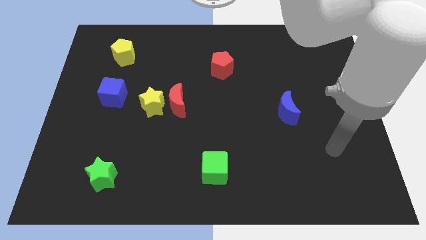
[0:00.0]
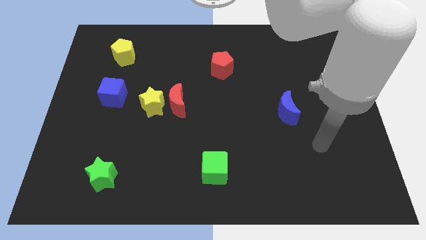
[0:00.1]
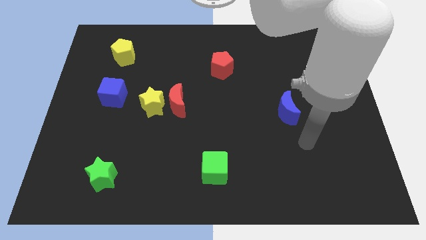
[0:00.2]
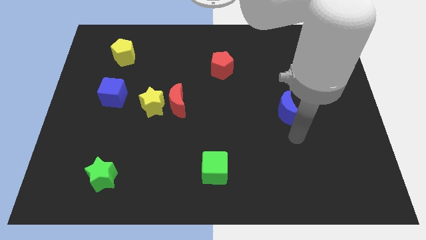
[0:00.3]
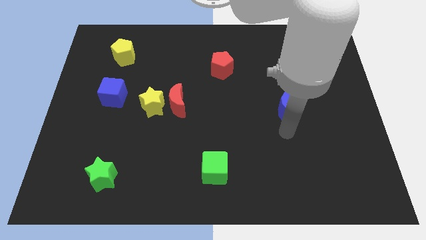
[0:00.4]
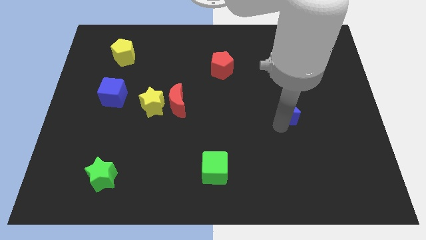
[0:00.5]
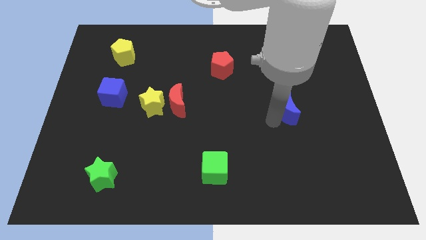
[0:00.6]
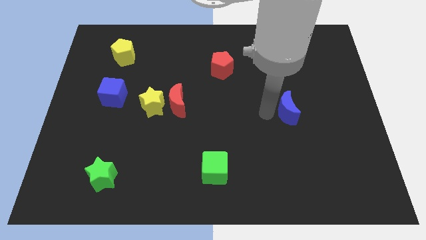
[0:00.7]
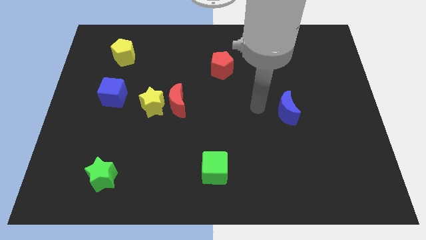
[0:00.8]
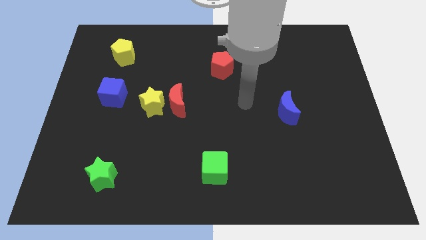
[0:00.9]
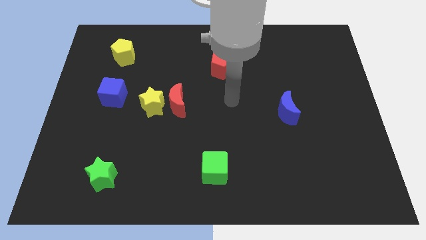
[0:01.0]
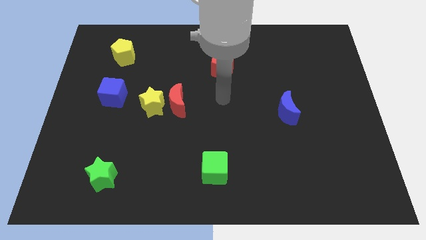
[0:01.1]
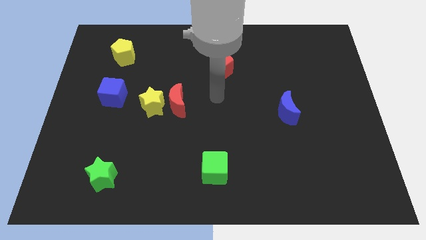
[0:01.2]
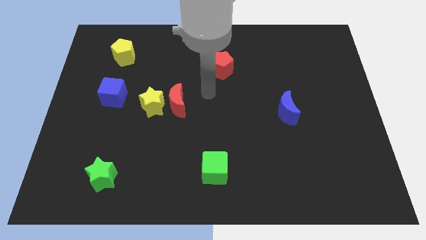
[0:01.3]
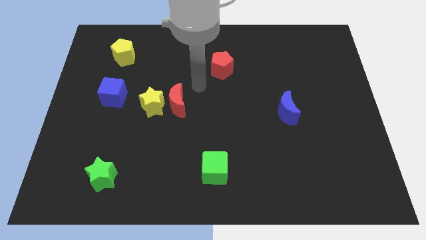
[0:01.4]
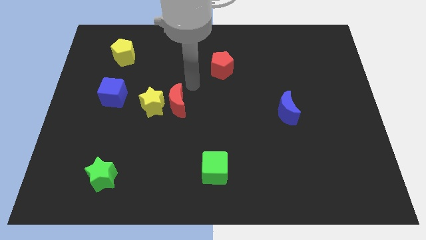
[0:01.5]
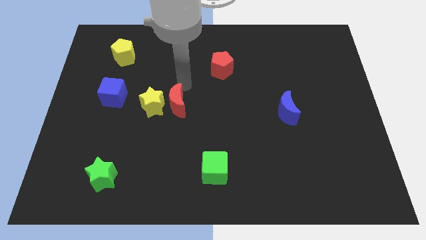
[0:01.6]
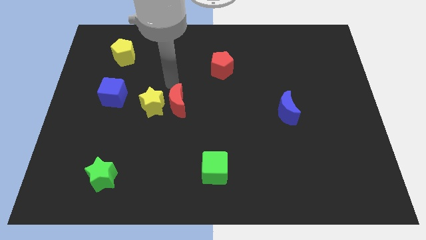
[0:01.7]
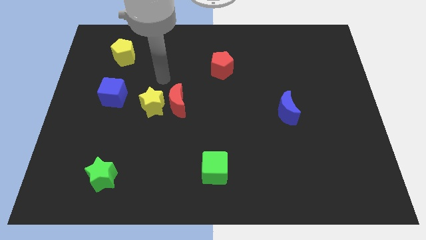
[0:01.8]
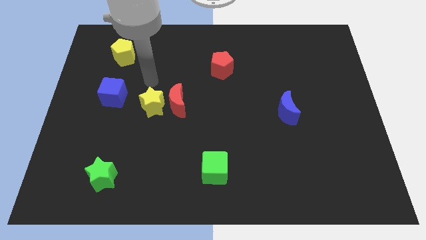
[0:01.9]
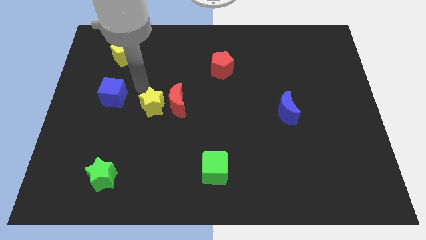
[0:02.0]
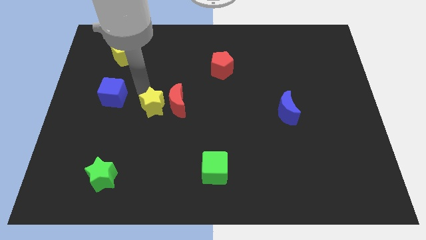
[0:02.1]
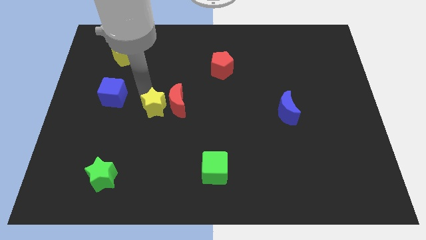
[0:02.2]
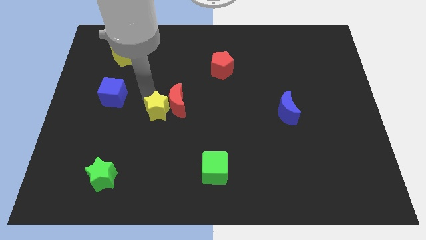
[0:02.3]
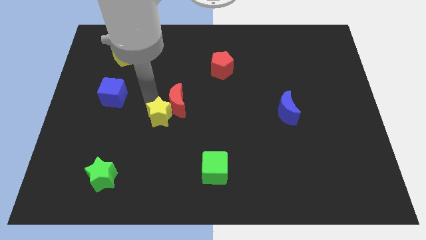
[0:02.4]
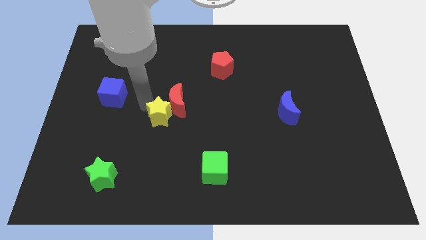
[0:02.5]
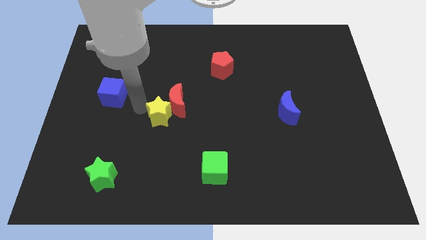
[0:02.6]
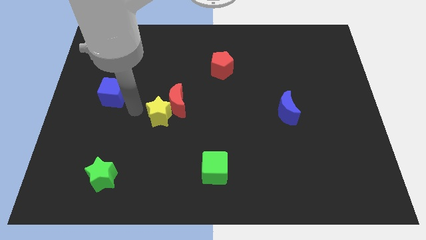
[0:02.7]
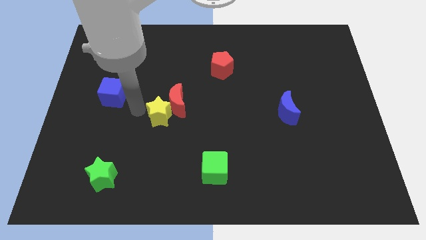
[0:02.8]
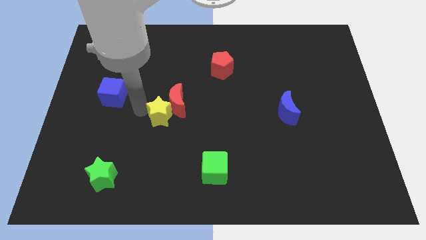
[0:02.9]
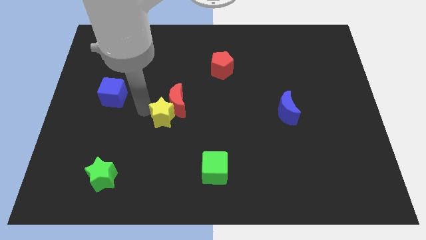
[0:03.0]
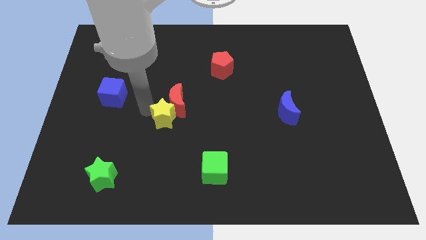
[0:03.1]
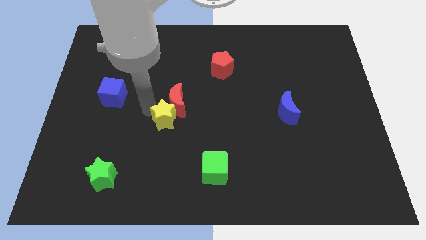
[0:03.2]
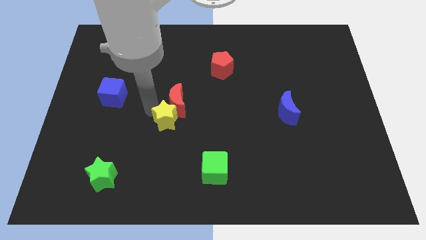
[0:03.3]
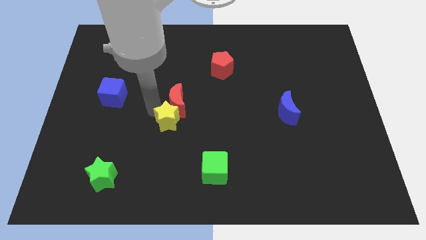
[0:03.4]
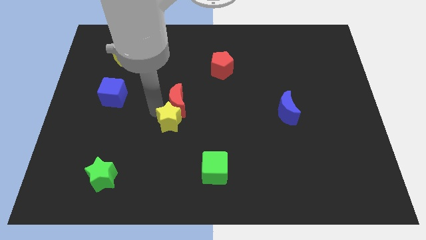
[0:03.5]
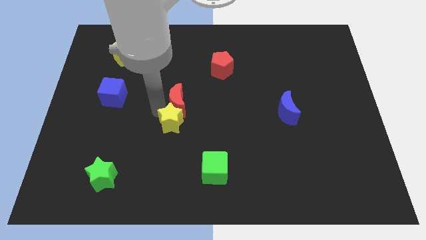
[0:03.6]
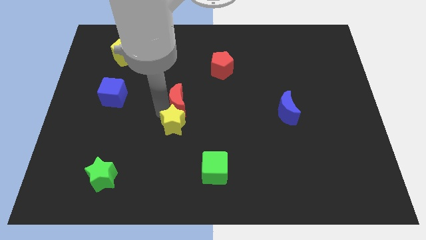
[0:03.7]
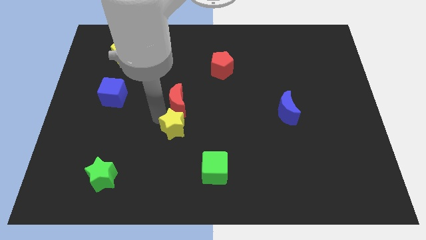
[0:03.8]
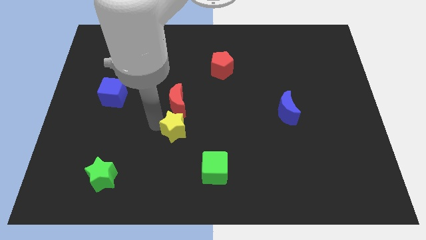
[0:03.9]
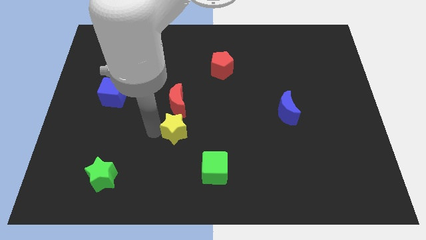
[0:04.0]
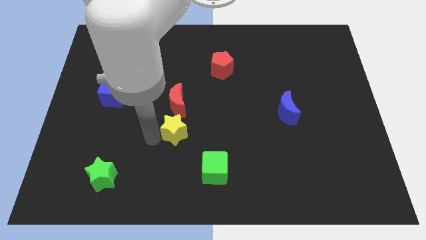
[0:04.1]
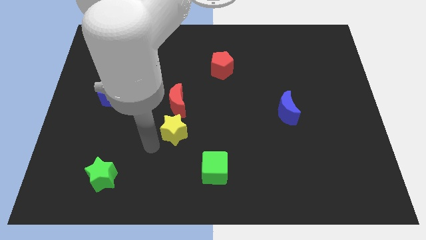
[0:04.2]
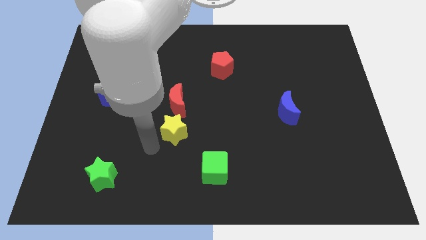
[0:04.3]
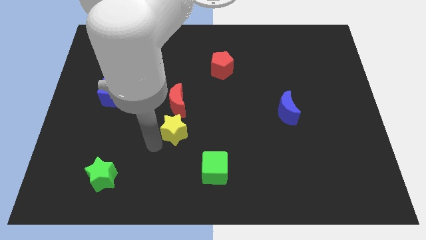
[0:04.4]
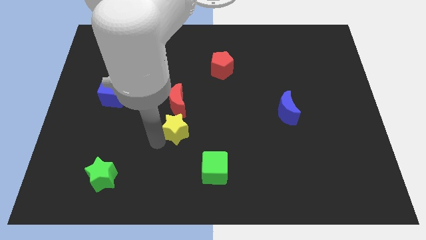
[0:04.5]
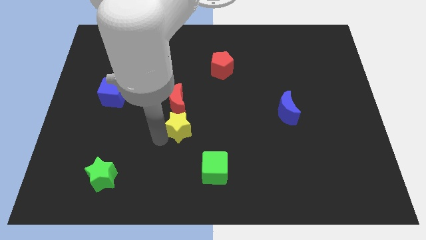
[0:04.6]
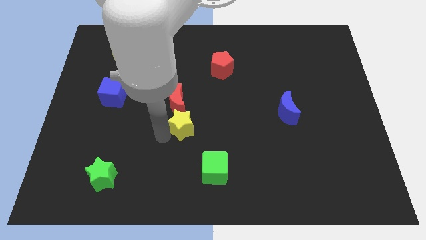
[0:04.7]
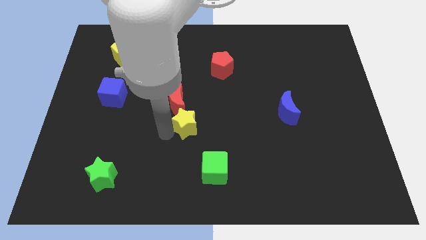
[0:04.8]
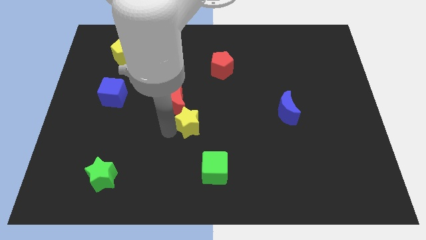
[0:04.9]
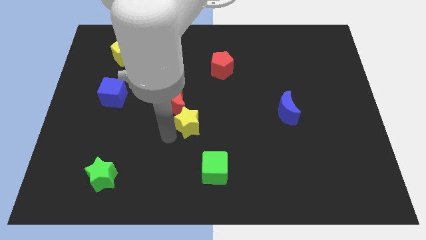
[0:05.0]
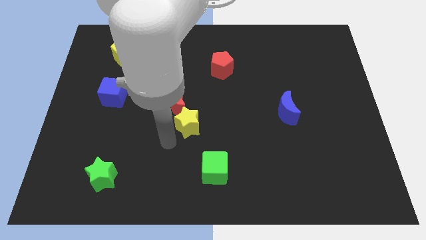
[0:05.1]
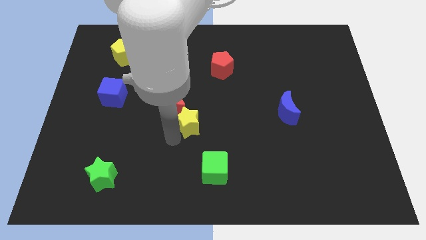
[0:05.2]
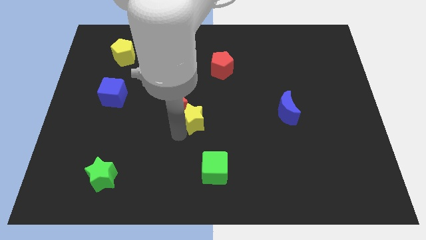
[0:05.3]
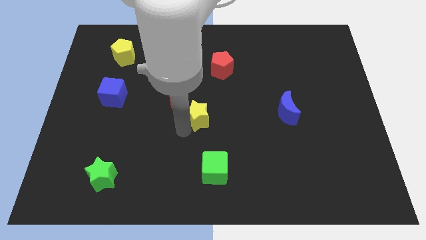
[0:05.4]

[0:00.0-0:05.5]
push the yellow star right of the red moon

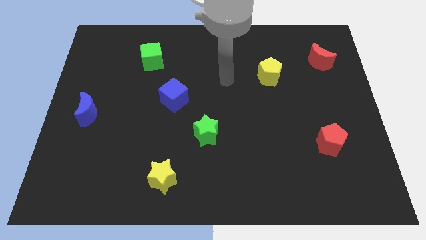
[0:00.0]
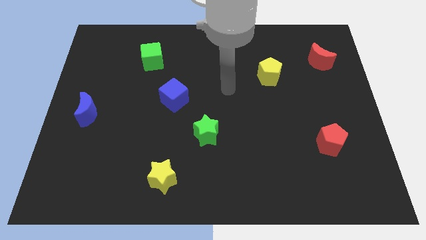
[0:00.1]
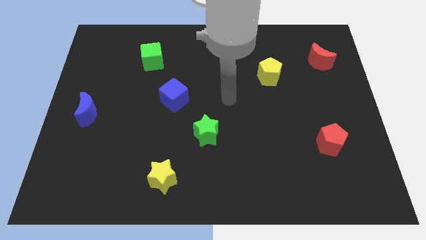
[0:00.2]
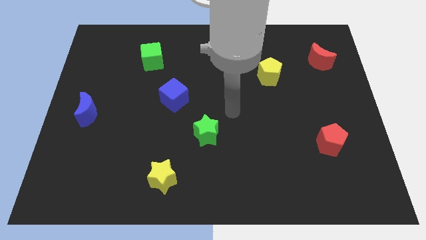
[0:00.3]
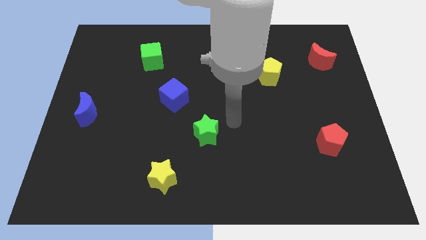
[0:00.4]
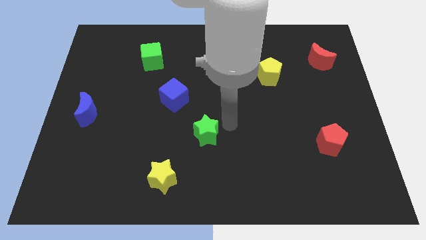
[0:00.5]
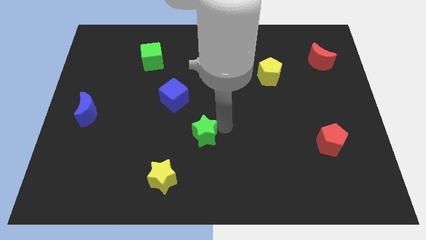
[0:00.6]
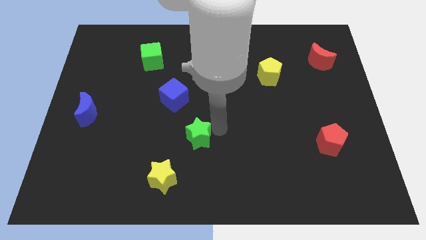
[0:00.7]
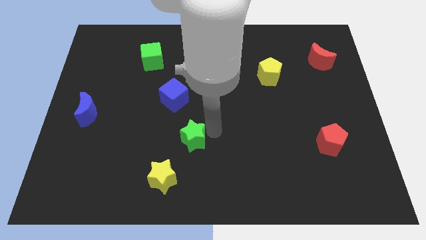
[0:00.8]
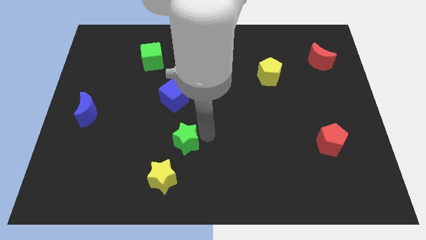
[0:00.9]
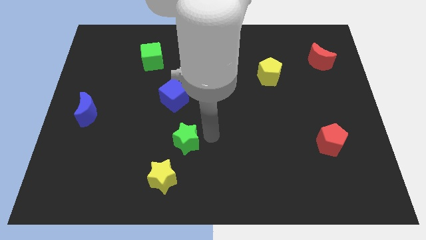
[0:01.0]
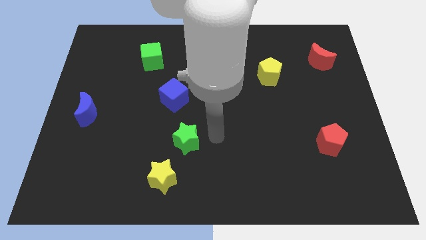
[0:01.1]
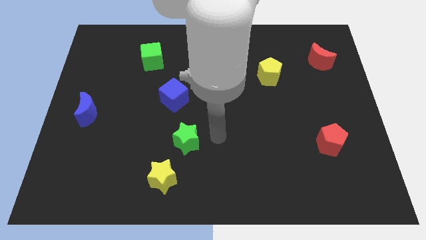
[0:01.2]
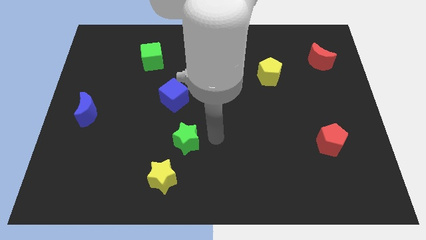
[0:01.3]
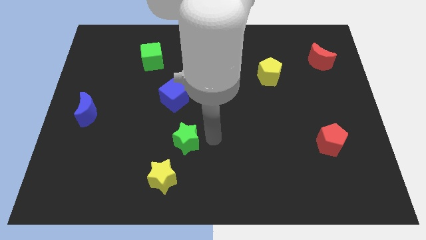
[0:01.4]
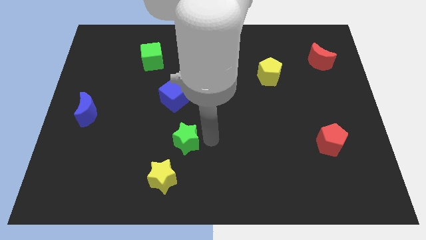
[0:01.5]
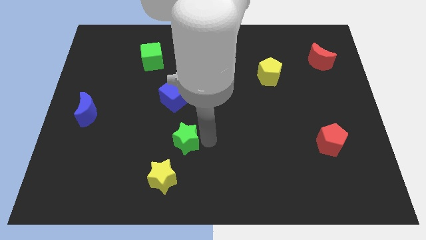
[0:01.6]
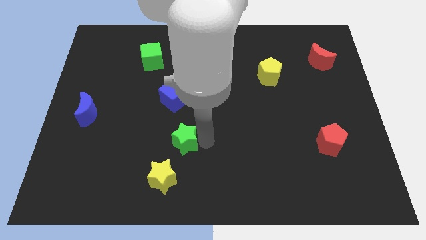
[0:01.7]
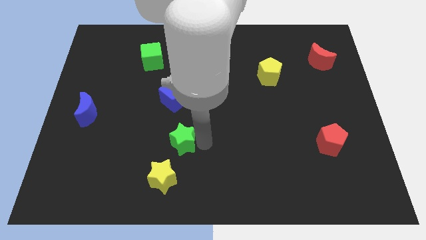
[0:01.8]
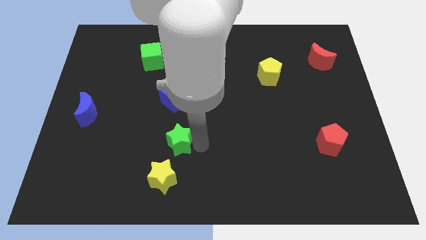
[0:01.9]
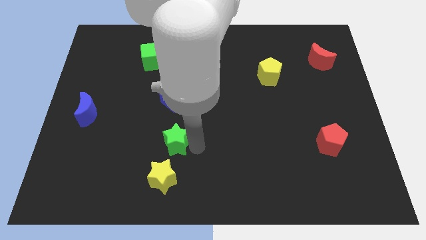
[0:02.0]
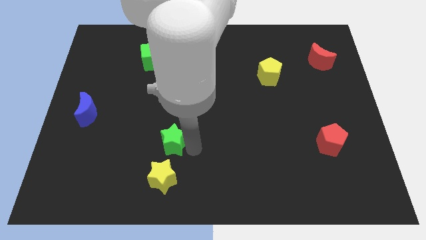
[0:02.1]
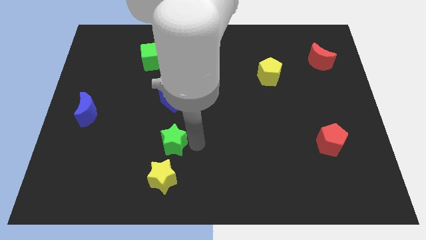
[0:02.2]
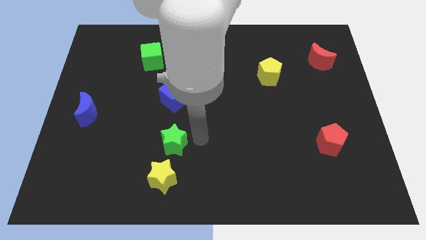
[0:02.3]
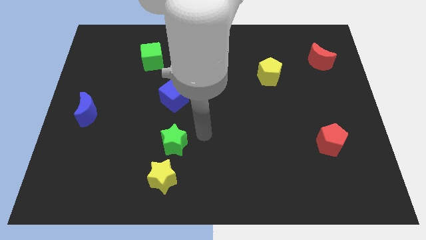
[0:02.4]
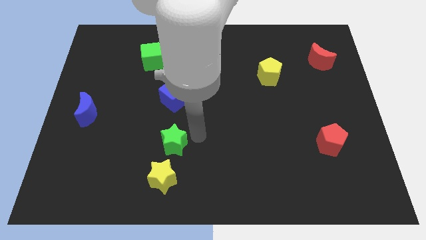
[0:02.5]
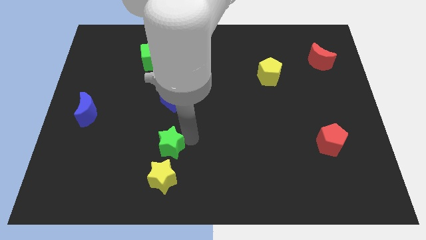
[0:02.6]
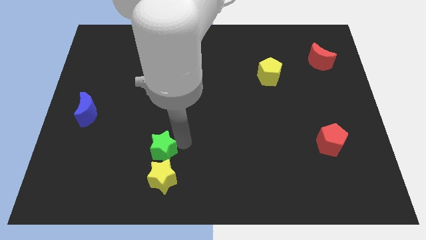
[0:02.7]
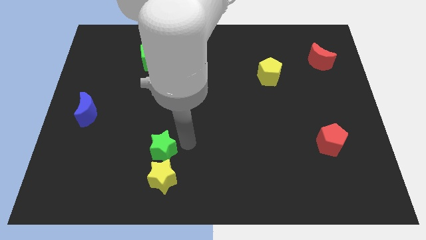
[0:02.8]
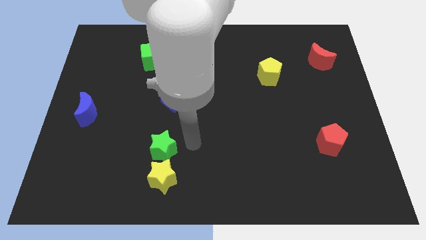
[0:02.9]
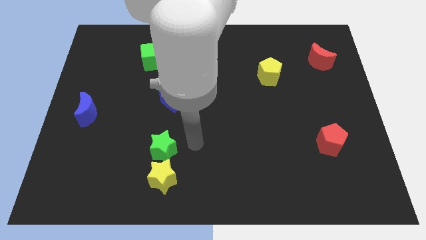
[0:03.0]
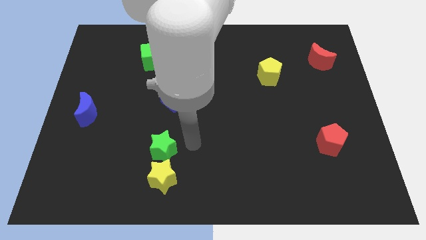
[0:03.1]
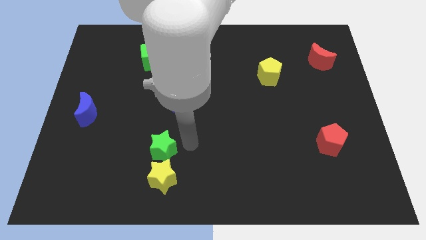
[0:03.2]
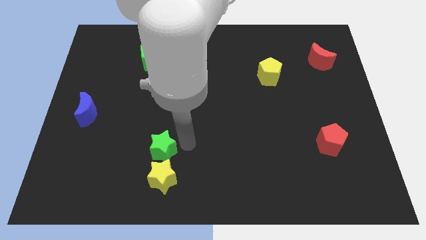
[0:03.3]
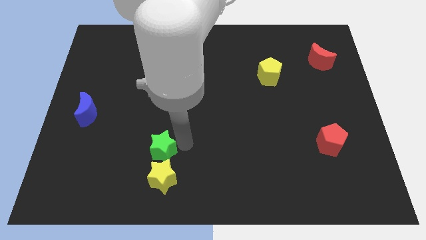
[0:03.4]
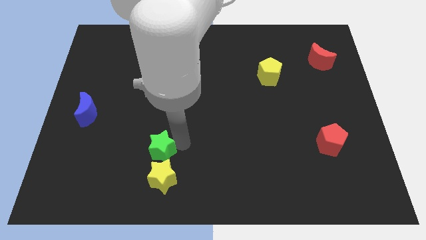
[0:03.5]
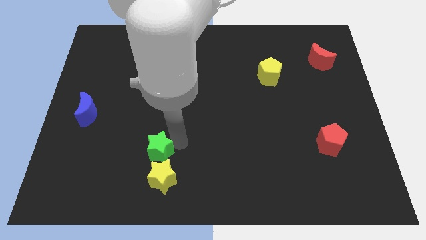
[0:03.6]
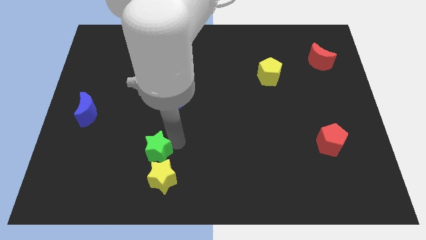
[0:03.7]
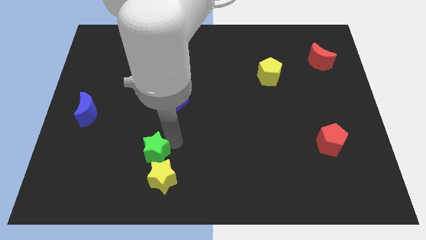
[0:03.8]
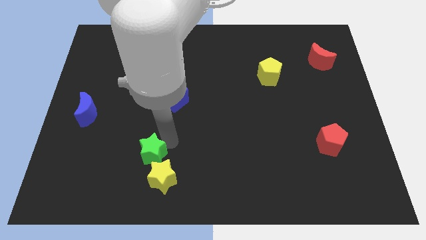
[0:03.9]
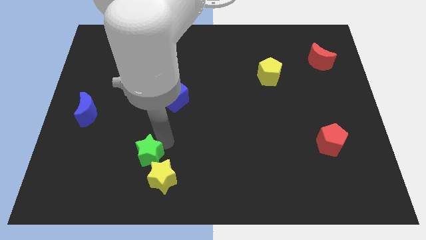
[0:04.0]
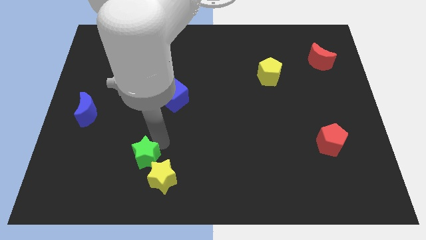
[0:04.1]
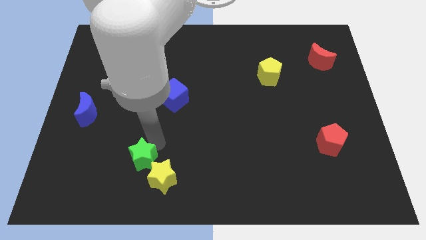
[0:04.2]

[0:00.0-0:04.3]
push the green star just left of the yellow star
